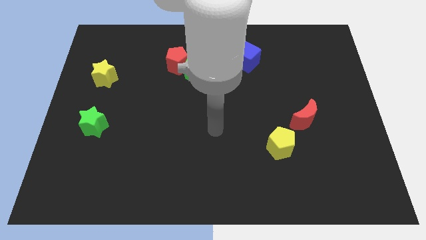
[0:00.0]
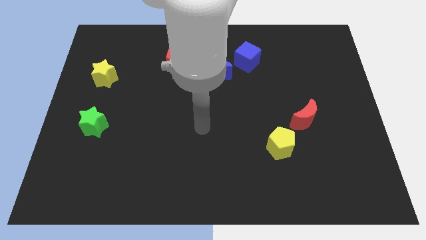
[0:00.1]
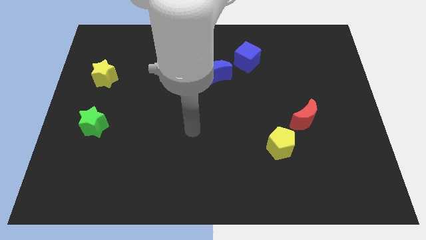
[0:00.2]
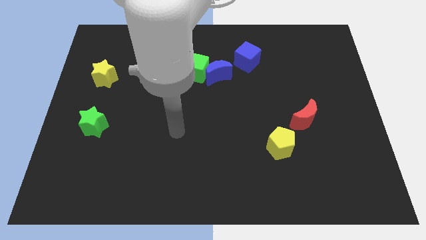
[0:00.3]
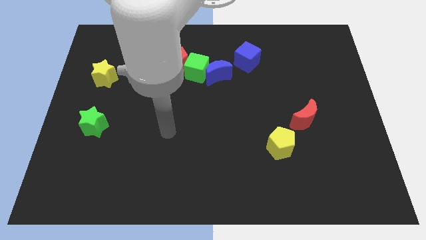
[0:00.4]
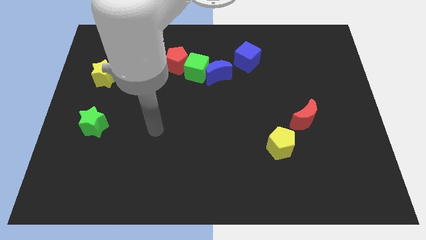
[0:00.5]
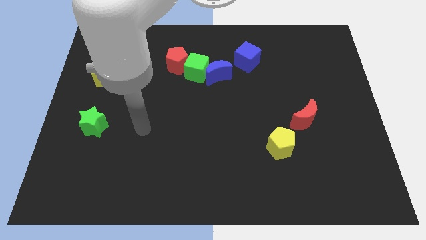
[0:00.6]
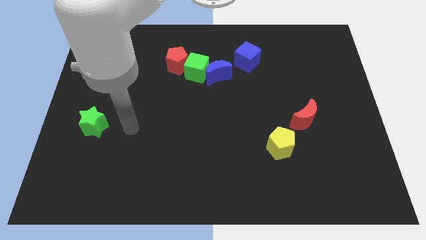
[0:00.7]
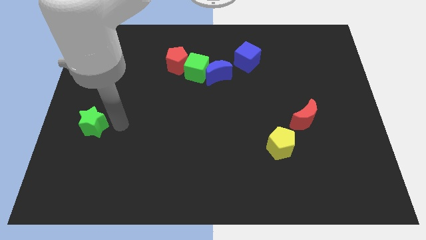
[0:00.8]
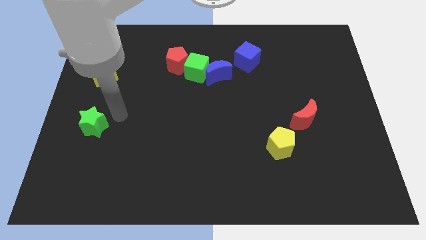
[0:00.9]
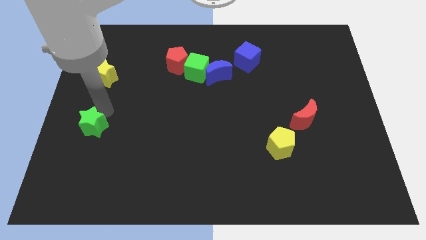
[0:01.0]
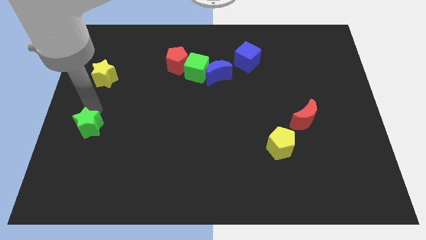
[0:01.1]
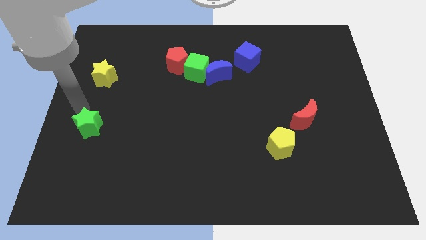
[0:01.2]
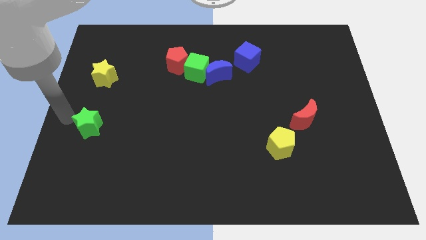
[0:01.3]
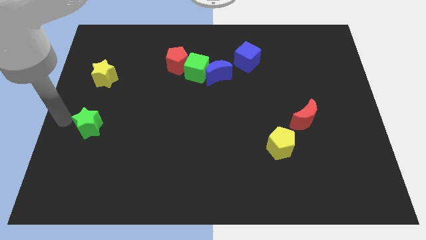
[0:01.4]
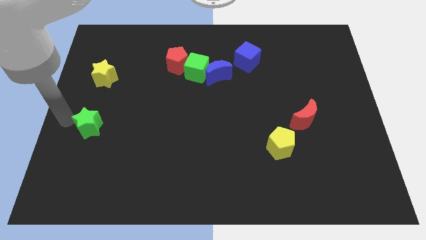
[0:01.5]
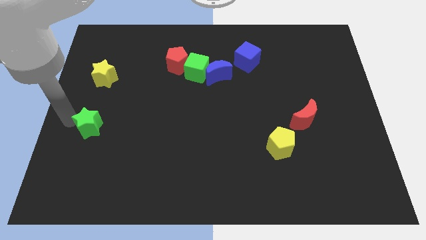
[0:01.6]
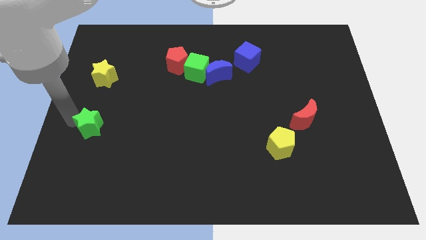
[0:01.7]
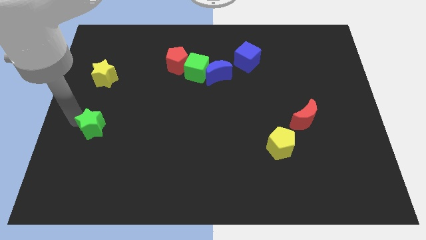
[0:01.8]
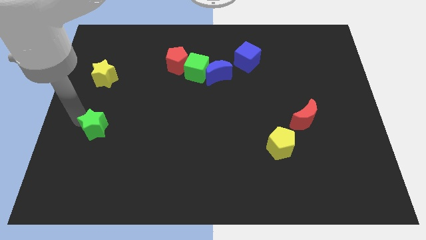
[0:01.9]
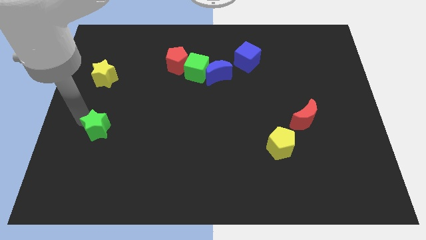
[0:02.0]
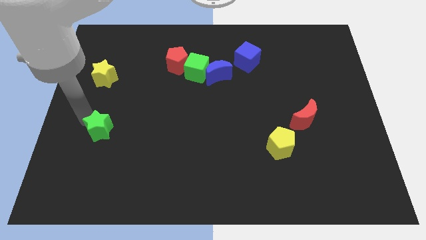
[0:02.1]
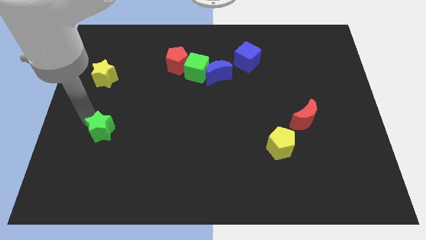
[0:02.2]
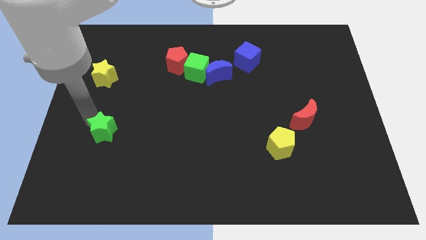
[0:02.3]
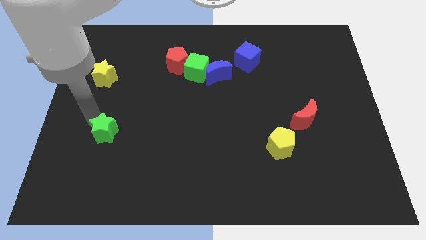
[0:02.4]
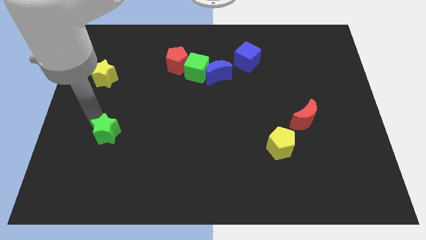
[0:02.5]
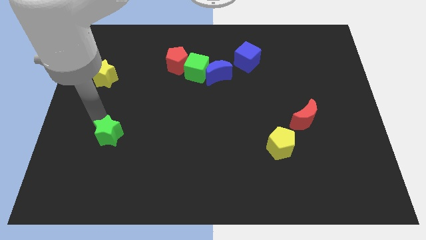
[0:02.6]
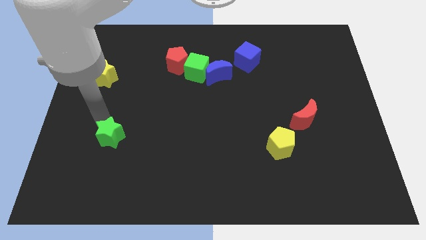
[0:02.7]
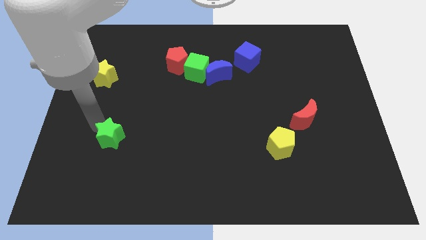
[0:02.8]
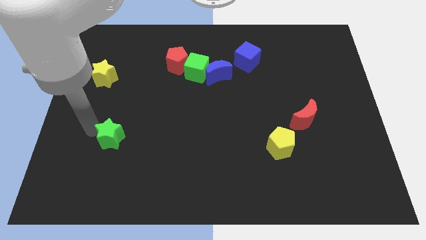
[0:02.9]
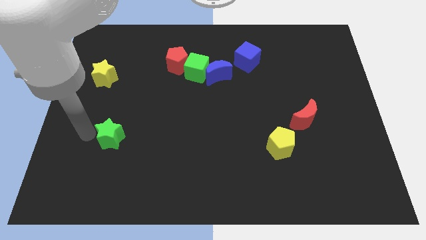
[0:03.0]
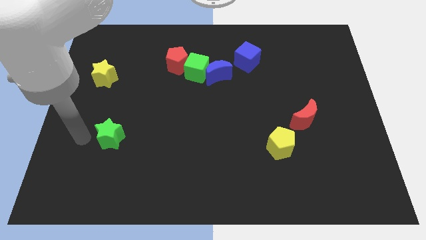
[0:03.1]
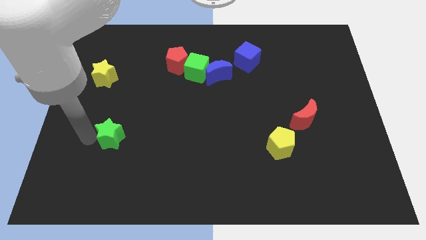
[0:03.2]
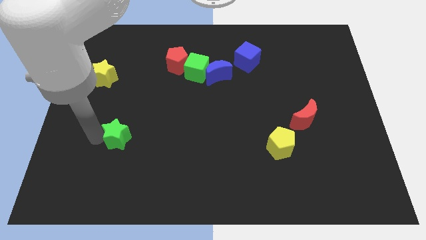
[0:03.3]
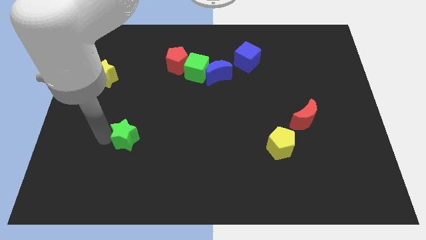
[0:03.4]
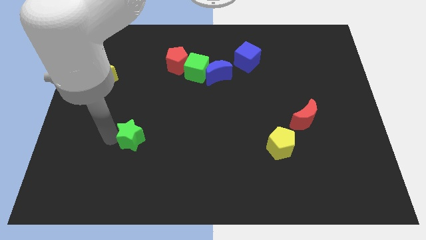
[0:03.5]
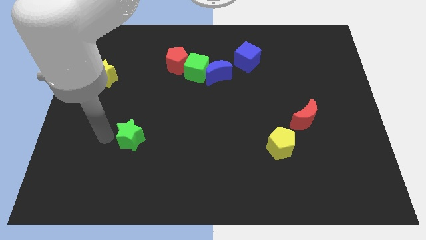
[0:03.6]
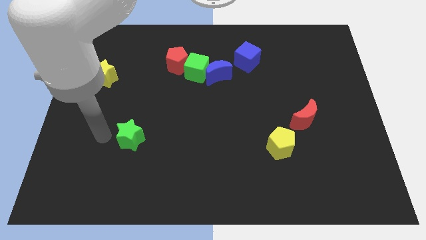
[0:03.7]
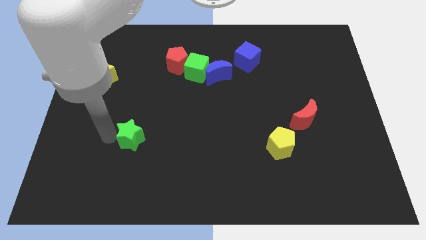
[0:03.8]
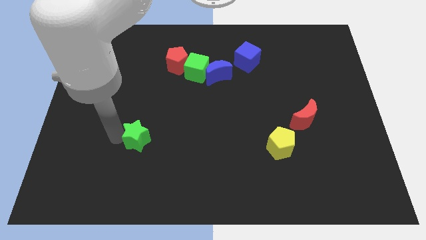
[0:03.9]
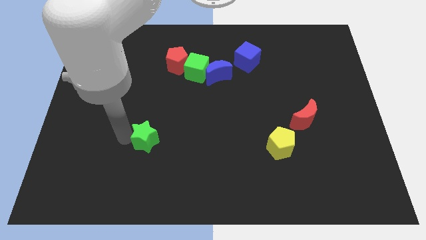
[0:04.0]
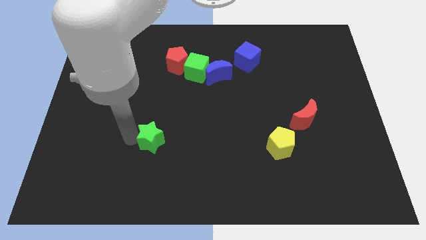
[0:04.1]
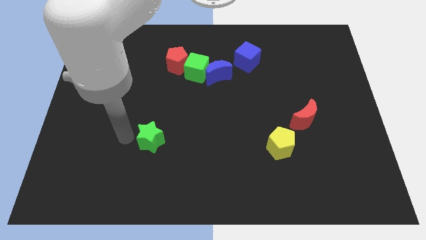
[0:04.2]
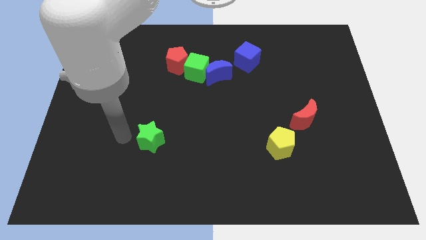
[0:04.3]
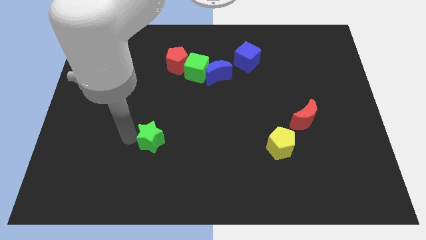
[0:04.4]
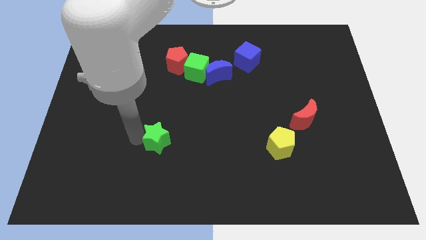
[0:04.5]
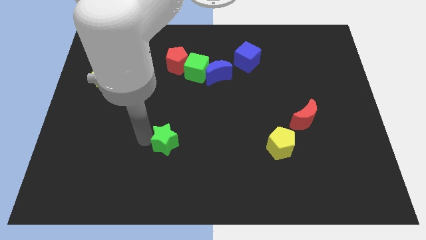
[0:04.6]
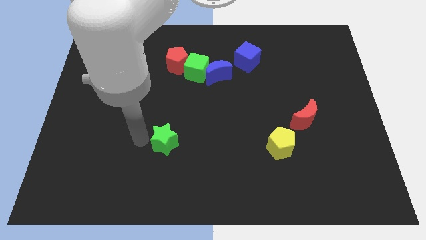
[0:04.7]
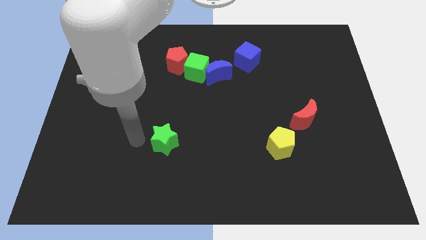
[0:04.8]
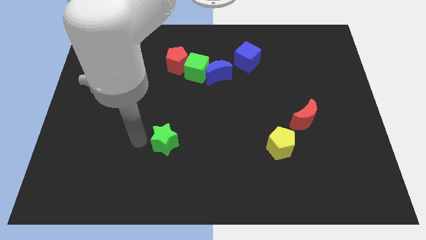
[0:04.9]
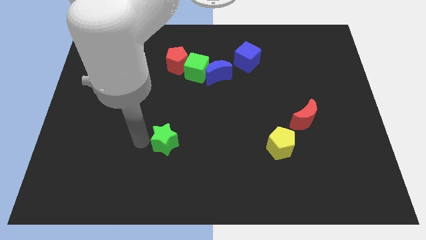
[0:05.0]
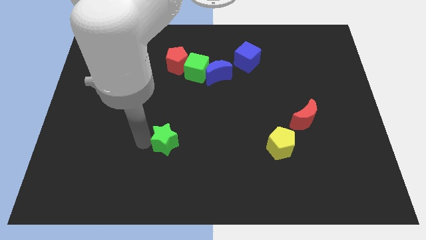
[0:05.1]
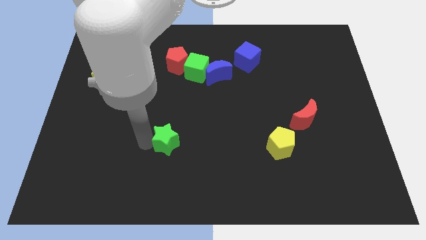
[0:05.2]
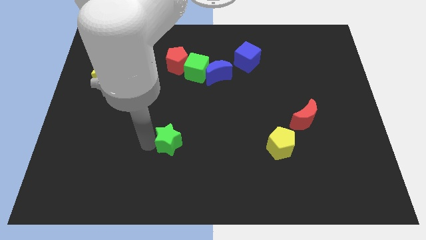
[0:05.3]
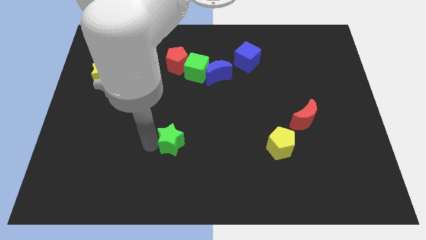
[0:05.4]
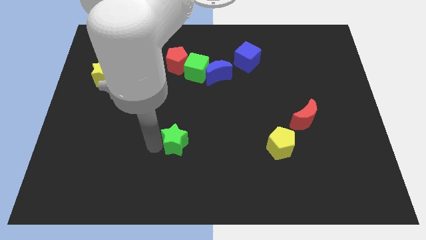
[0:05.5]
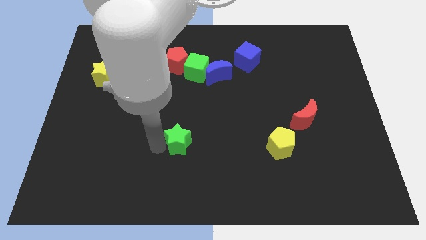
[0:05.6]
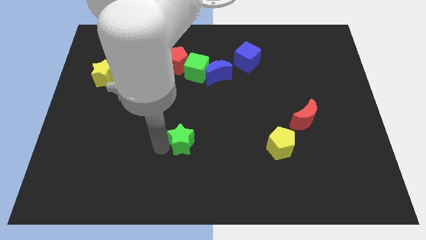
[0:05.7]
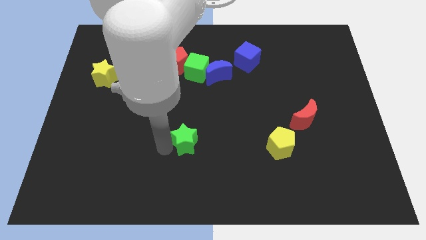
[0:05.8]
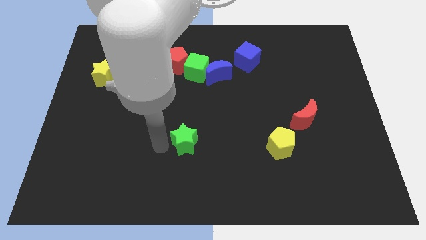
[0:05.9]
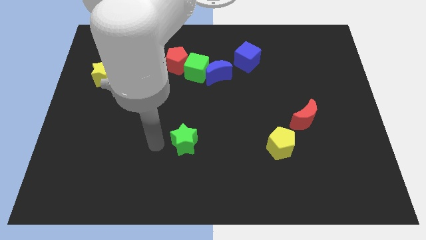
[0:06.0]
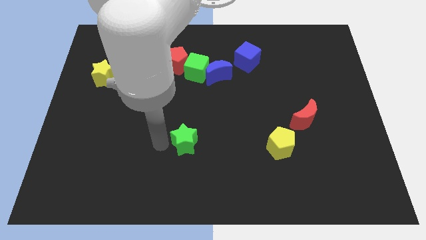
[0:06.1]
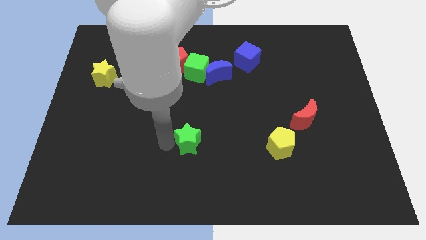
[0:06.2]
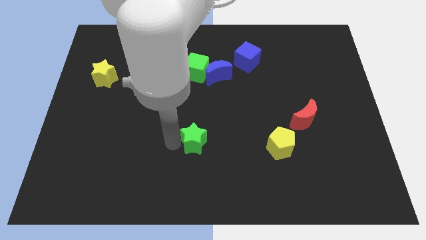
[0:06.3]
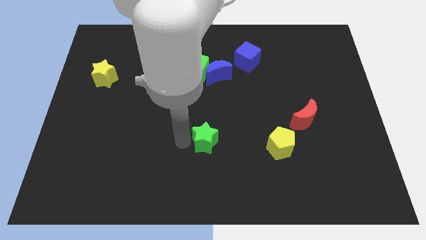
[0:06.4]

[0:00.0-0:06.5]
slide the green star left of the yellow pentagon

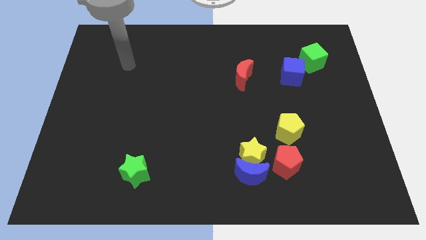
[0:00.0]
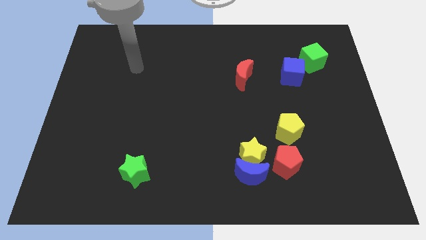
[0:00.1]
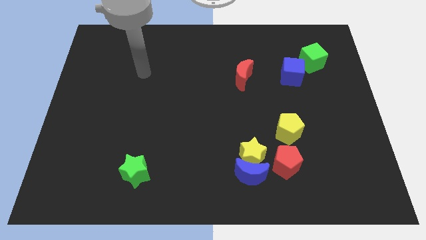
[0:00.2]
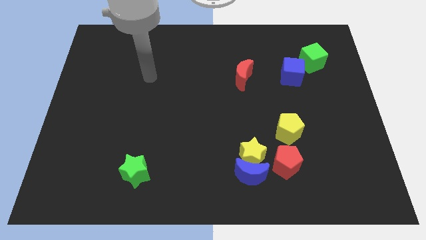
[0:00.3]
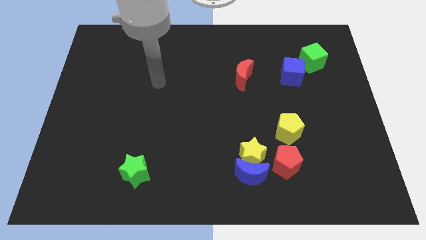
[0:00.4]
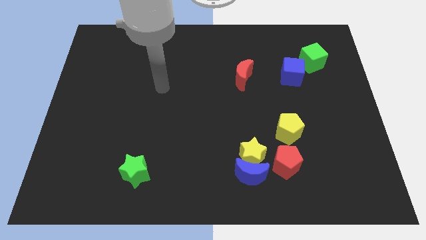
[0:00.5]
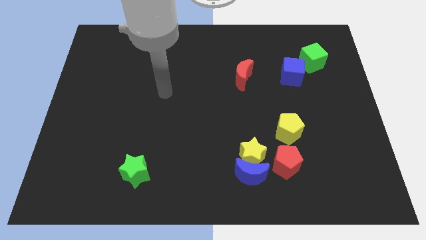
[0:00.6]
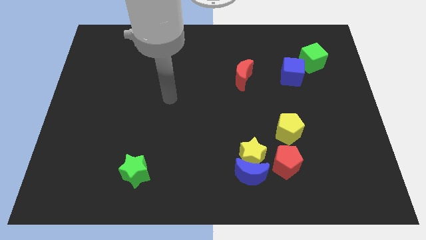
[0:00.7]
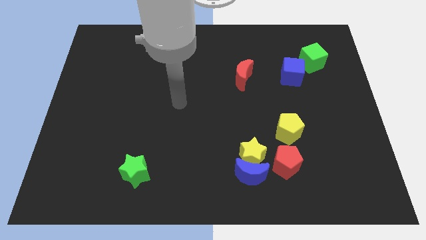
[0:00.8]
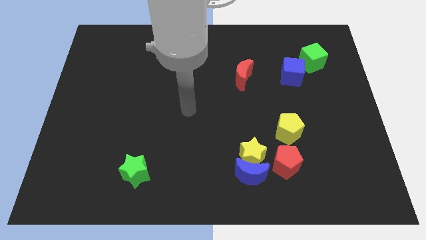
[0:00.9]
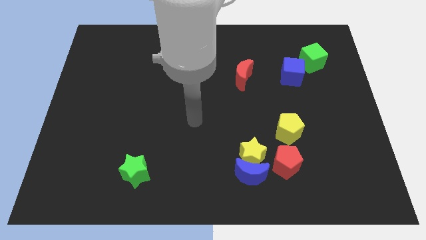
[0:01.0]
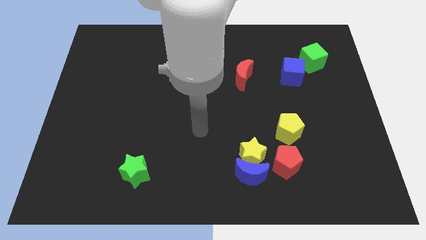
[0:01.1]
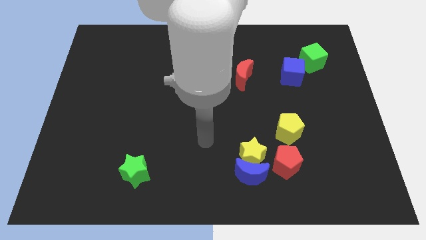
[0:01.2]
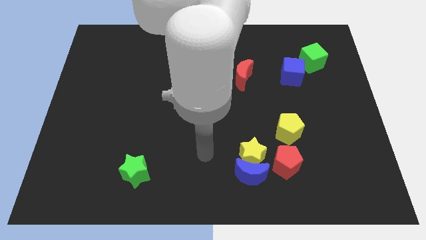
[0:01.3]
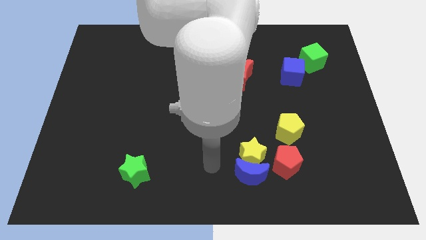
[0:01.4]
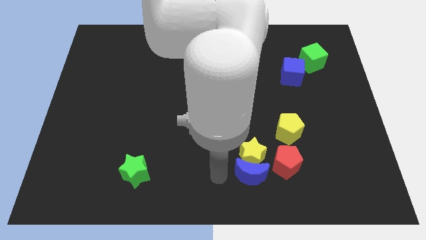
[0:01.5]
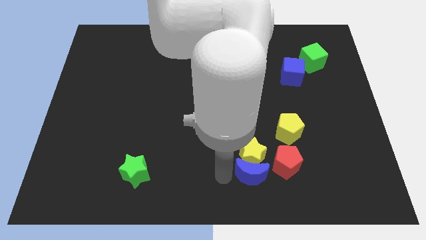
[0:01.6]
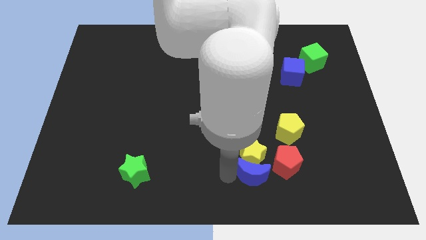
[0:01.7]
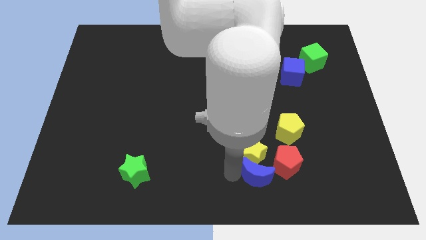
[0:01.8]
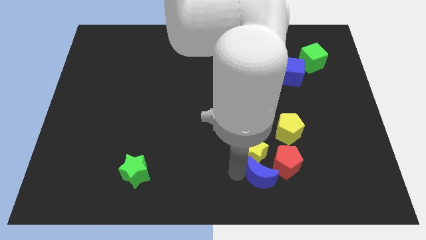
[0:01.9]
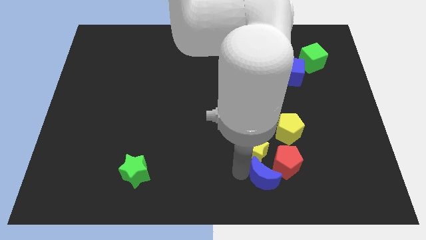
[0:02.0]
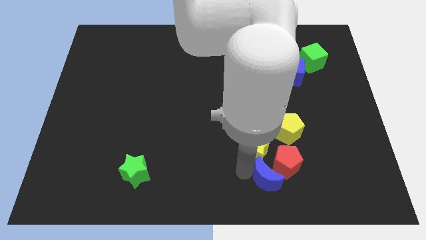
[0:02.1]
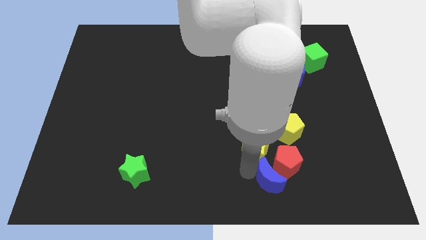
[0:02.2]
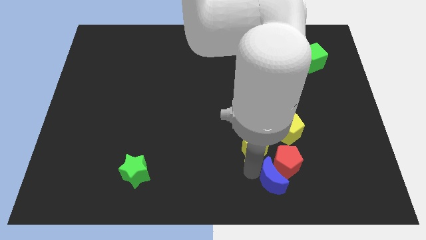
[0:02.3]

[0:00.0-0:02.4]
put the blue moon to the bottom side of the yellow pentagon
